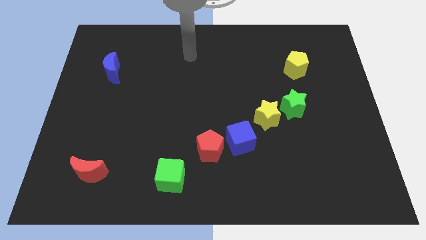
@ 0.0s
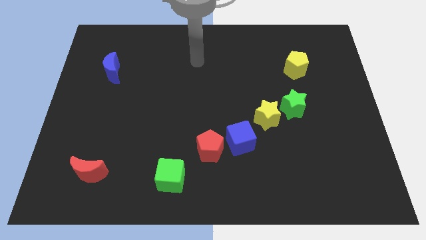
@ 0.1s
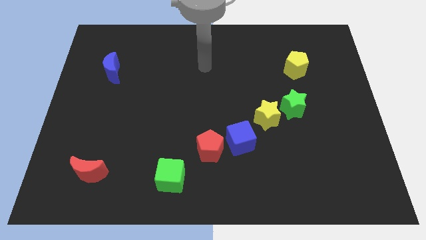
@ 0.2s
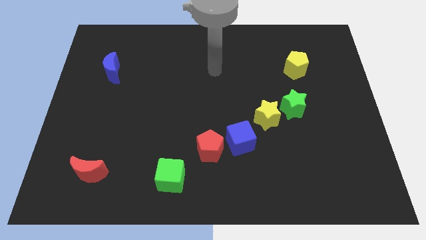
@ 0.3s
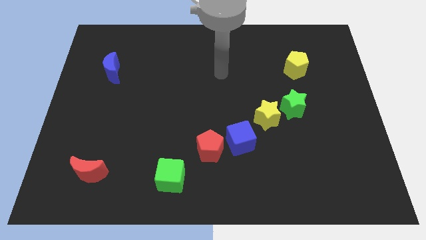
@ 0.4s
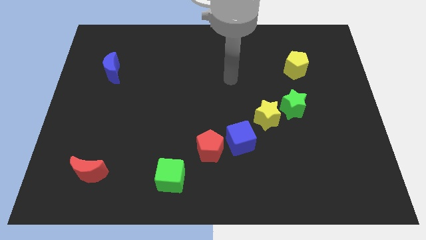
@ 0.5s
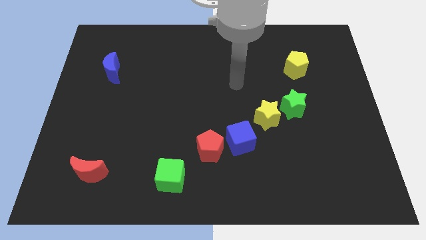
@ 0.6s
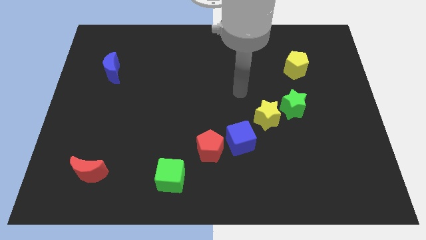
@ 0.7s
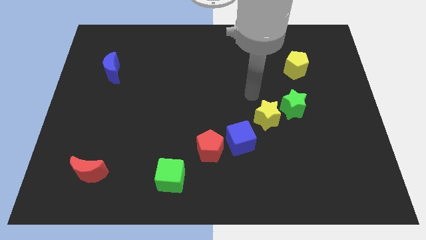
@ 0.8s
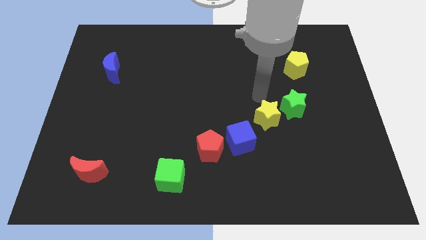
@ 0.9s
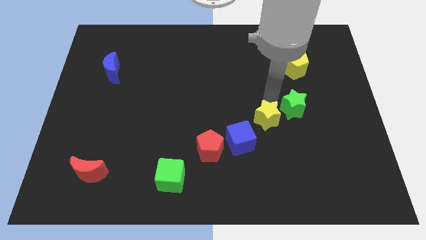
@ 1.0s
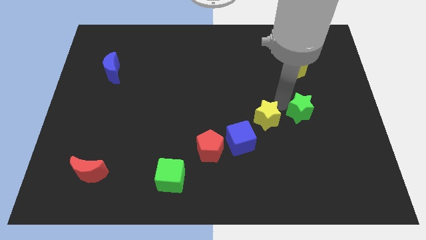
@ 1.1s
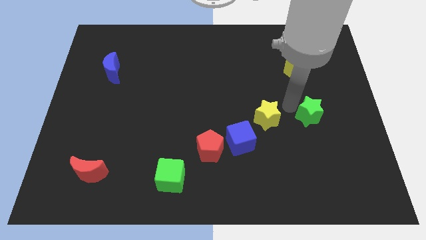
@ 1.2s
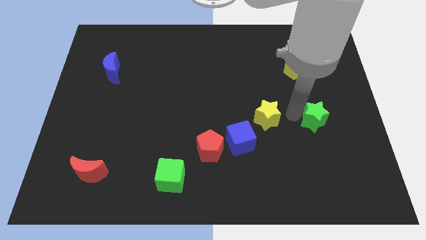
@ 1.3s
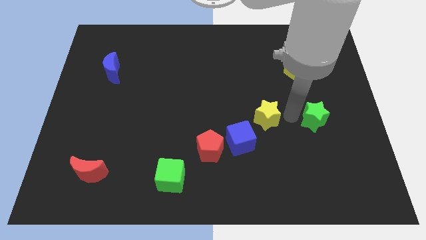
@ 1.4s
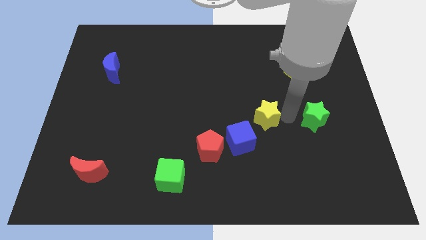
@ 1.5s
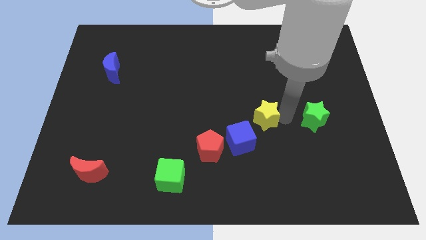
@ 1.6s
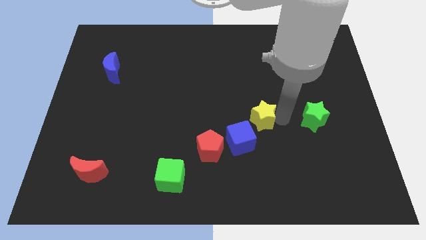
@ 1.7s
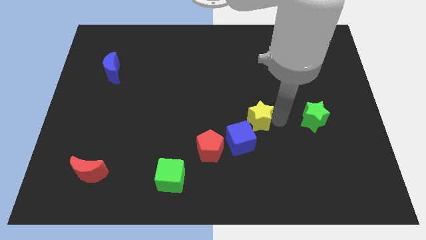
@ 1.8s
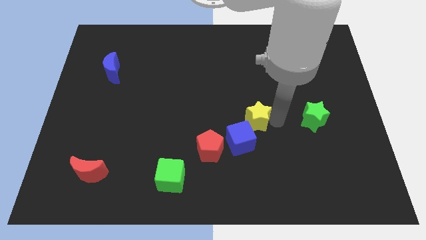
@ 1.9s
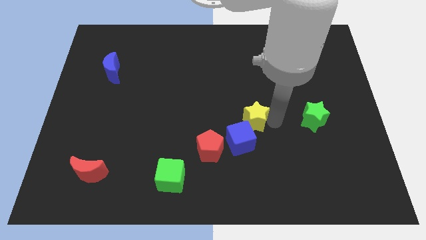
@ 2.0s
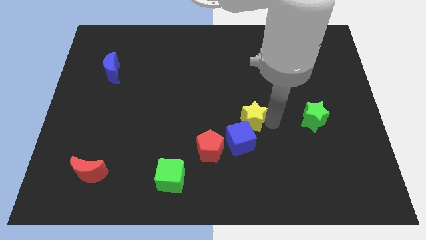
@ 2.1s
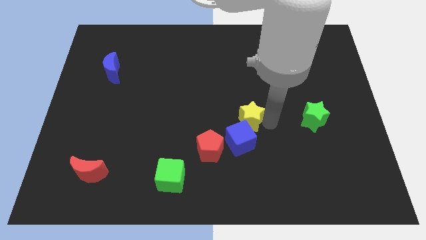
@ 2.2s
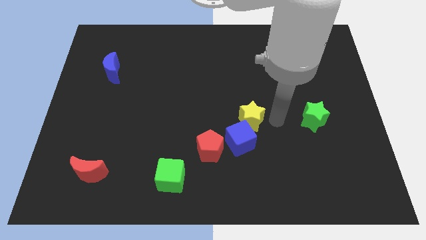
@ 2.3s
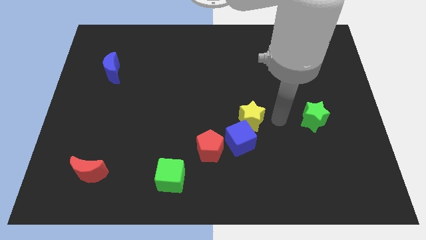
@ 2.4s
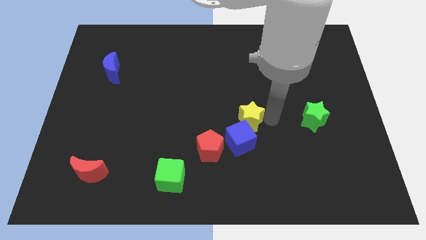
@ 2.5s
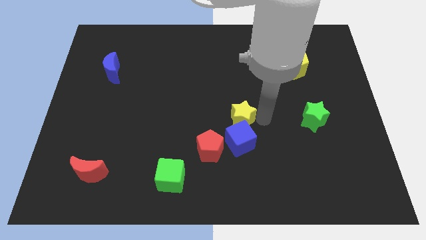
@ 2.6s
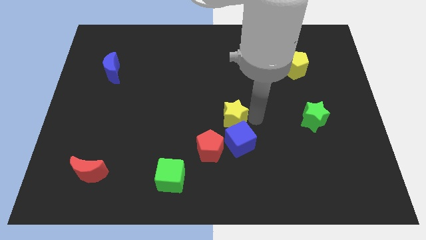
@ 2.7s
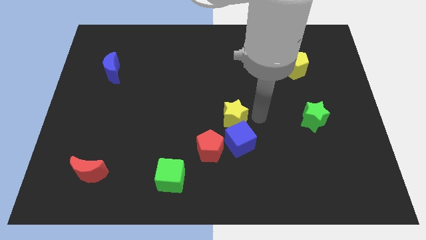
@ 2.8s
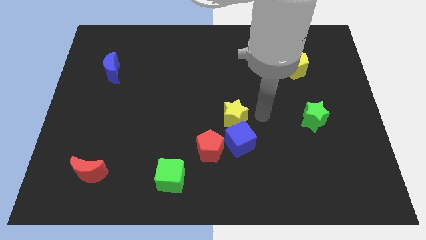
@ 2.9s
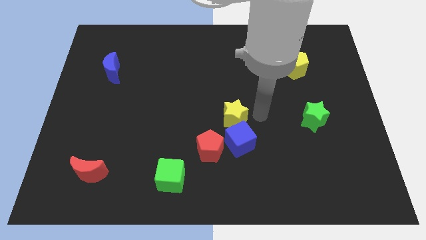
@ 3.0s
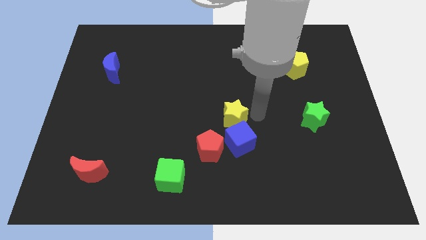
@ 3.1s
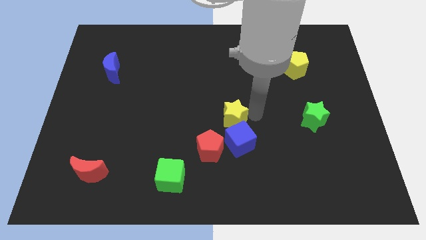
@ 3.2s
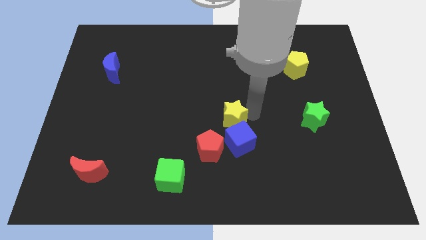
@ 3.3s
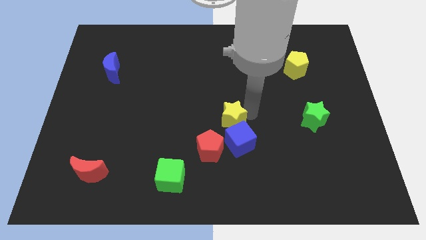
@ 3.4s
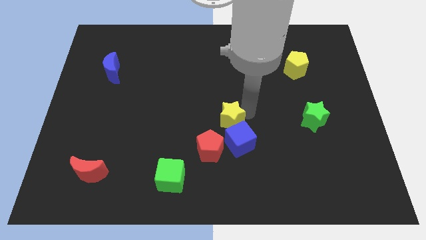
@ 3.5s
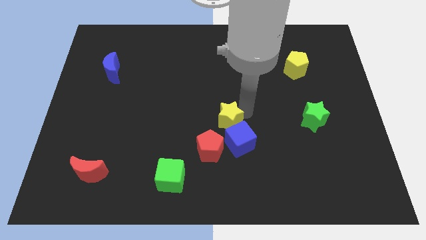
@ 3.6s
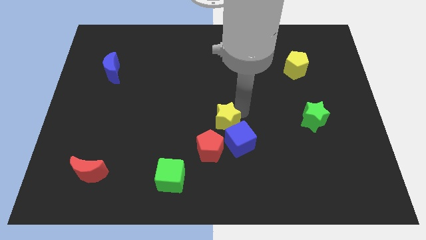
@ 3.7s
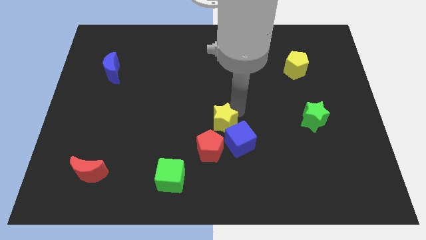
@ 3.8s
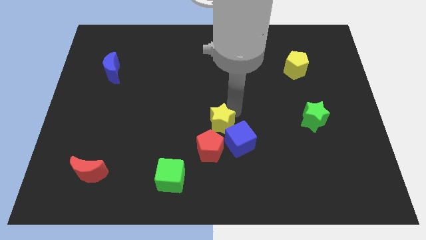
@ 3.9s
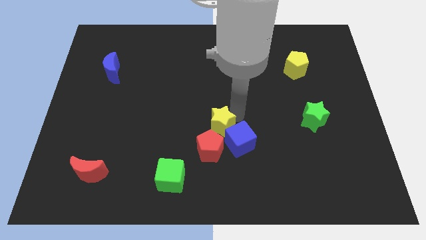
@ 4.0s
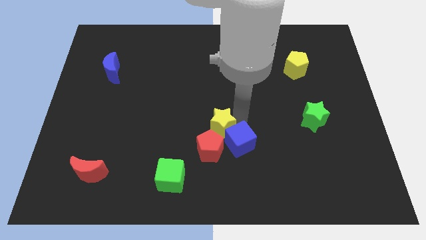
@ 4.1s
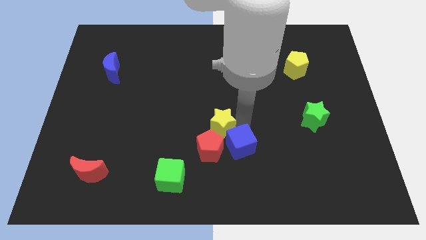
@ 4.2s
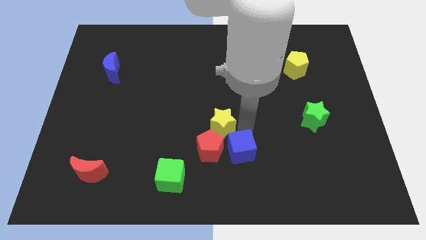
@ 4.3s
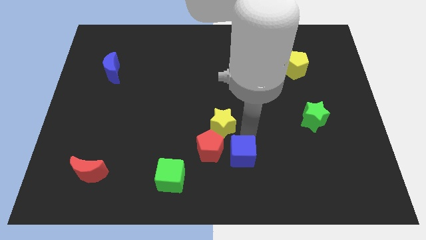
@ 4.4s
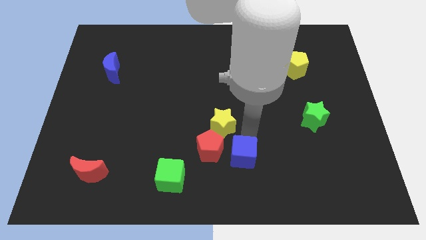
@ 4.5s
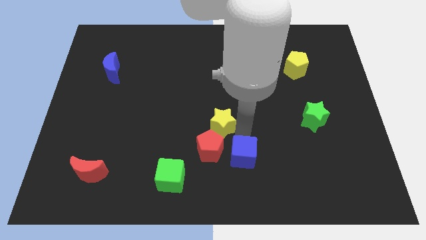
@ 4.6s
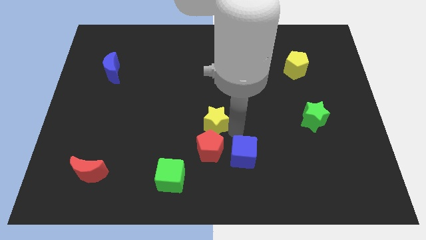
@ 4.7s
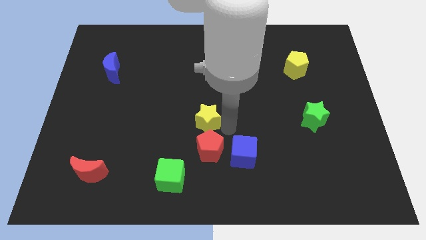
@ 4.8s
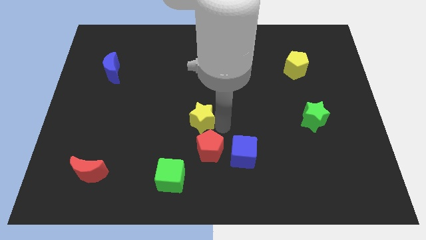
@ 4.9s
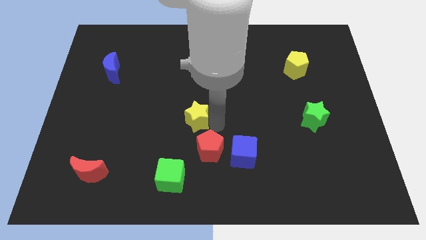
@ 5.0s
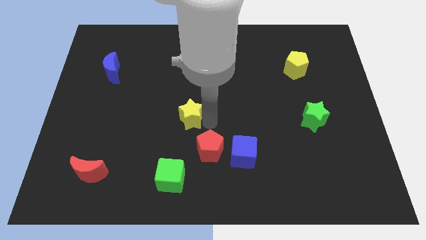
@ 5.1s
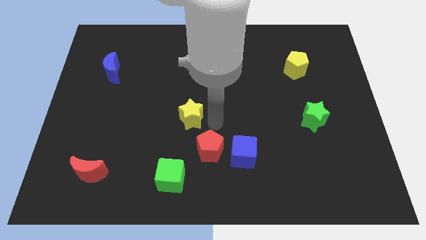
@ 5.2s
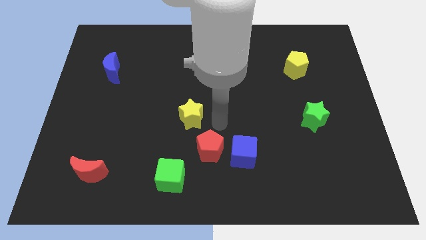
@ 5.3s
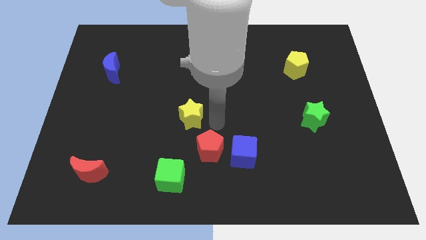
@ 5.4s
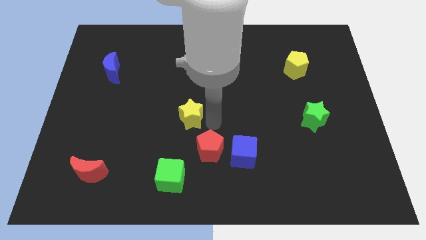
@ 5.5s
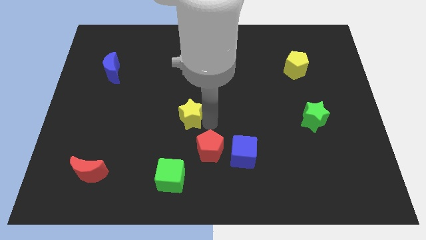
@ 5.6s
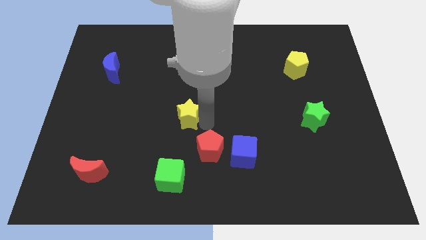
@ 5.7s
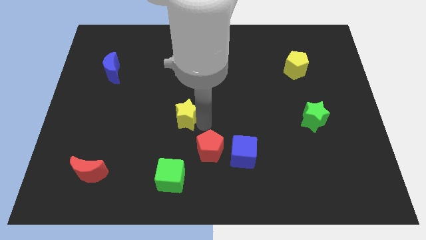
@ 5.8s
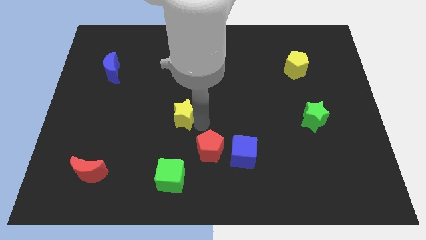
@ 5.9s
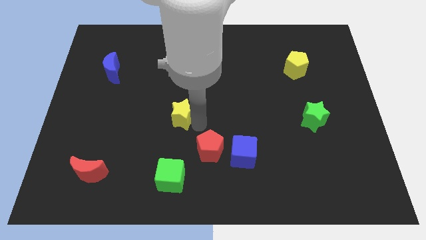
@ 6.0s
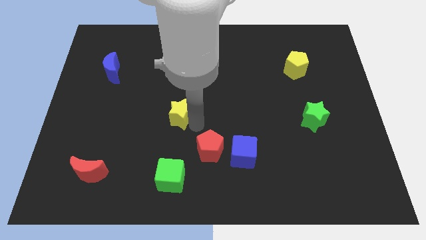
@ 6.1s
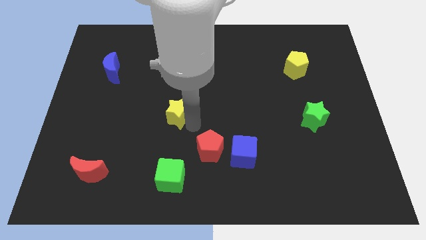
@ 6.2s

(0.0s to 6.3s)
move the yellow star to the left

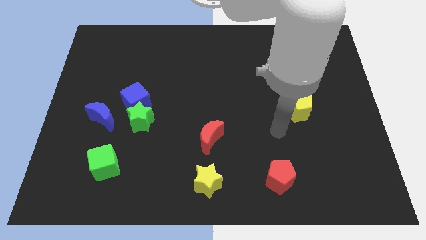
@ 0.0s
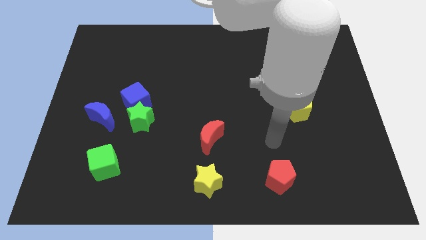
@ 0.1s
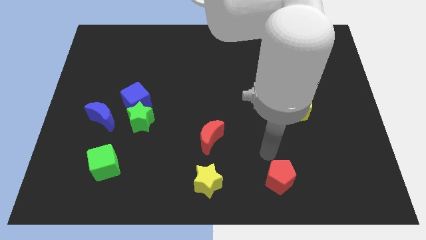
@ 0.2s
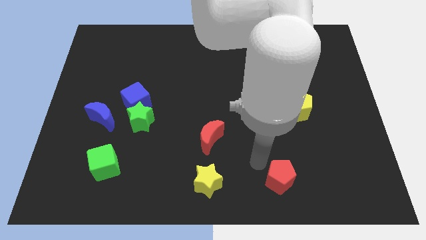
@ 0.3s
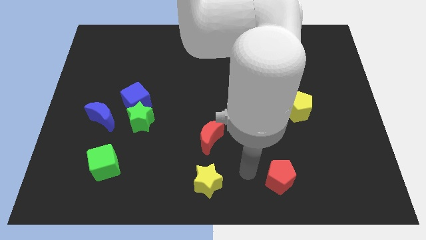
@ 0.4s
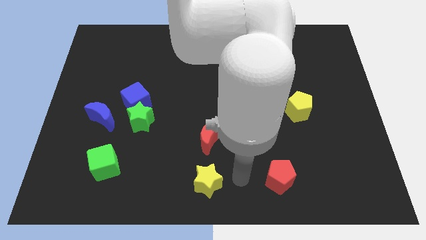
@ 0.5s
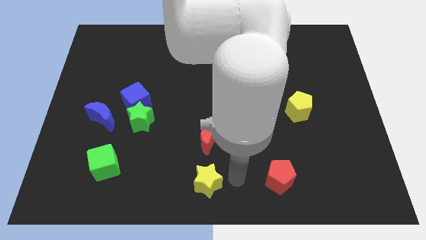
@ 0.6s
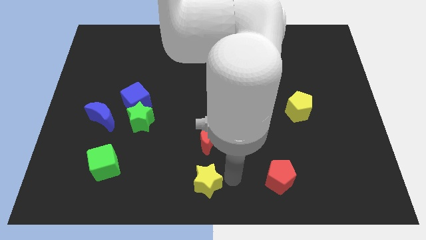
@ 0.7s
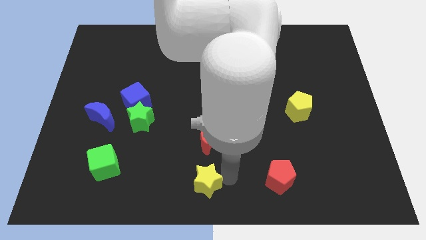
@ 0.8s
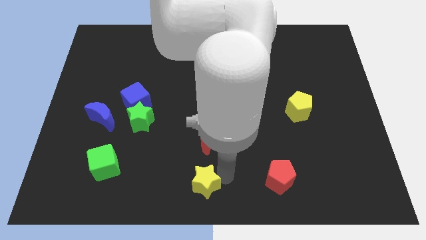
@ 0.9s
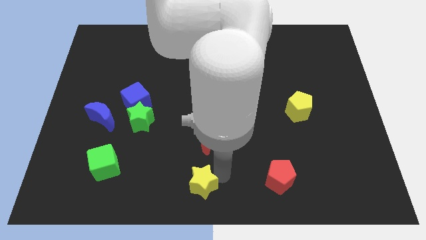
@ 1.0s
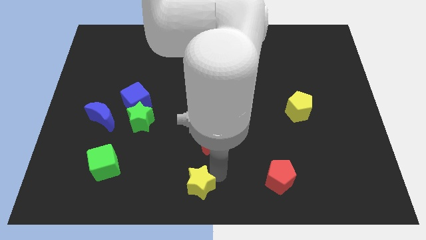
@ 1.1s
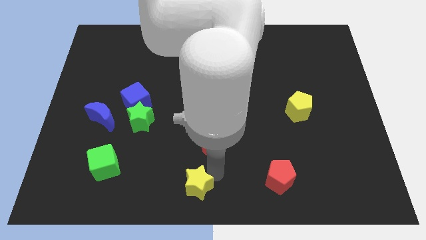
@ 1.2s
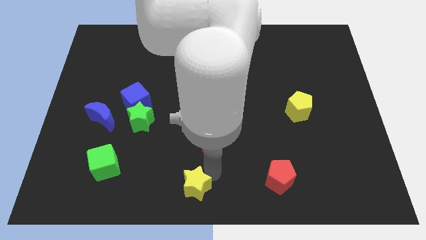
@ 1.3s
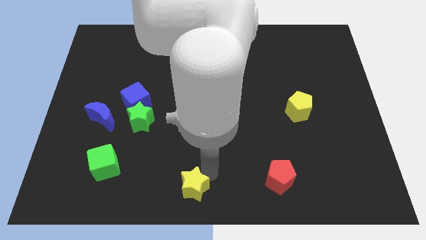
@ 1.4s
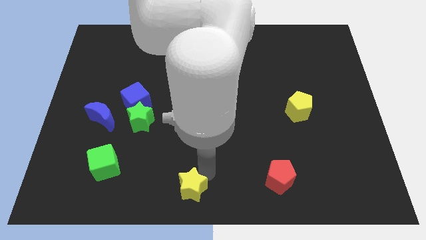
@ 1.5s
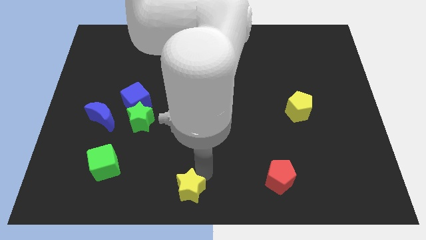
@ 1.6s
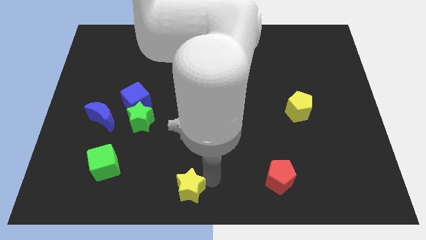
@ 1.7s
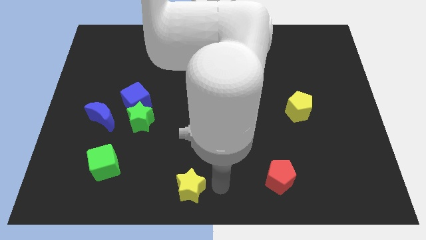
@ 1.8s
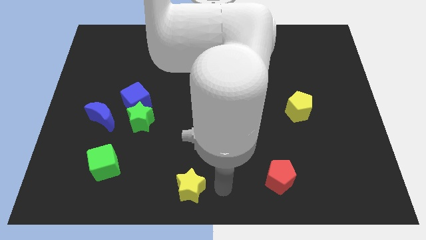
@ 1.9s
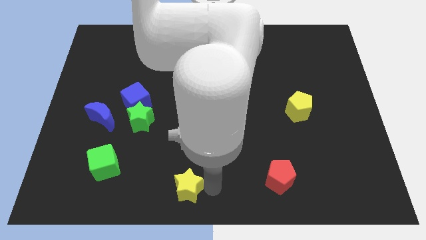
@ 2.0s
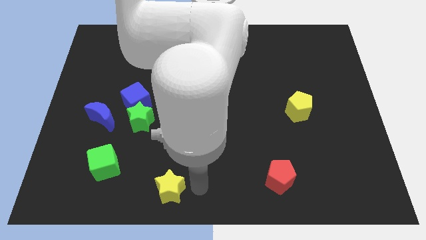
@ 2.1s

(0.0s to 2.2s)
push the yellow star to the left slightly
